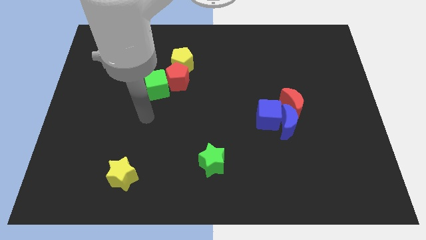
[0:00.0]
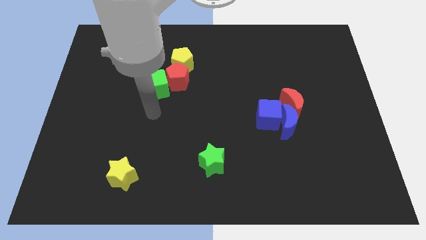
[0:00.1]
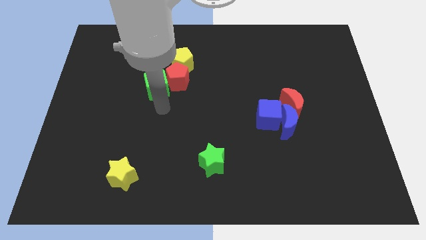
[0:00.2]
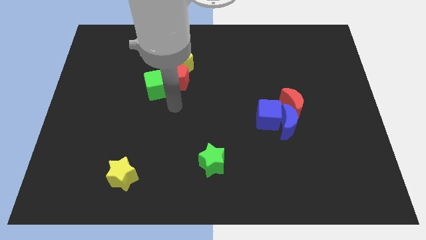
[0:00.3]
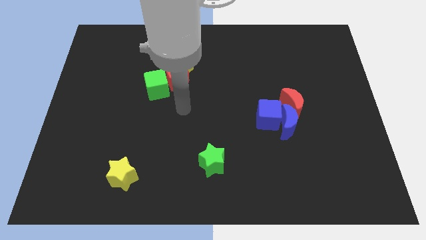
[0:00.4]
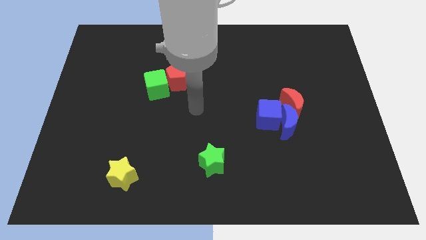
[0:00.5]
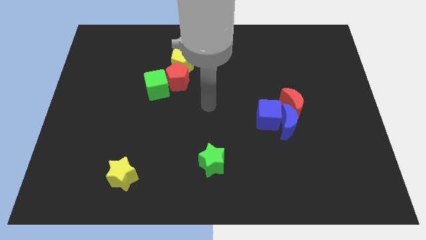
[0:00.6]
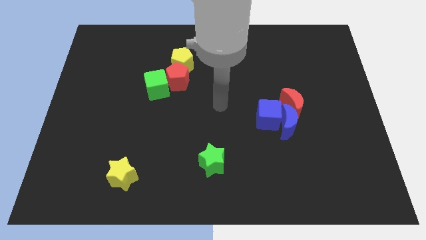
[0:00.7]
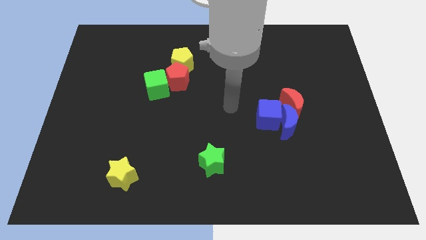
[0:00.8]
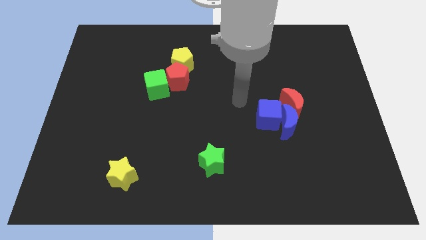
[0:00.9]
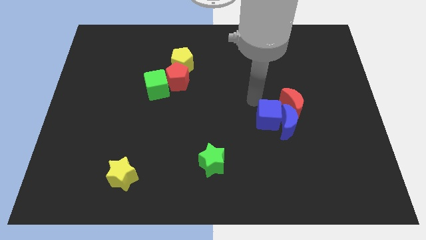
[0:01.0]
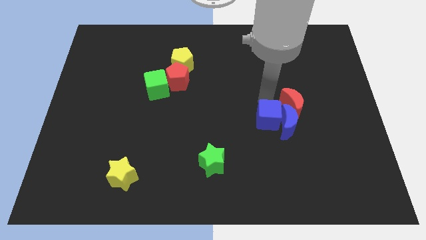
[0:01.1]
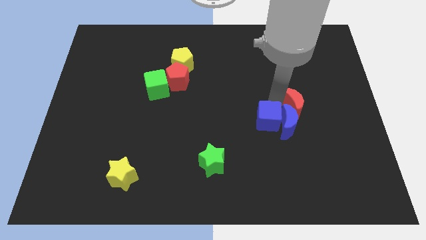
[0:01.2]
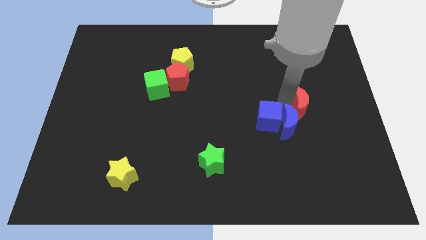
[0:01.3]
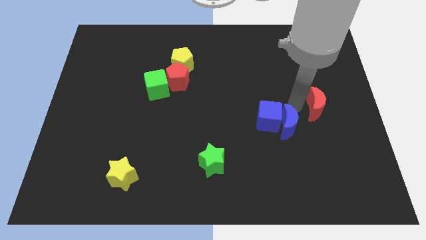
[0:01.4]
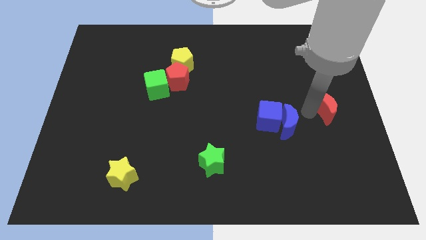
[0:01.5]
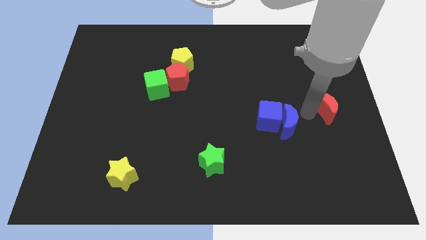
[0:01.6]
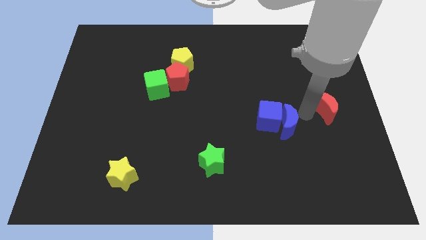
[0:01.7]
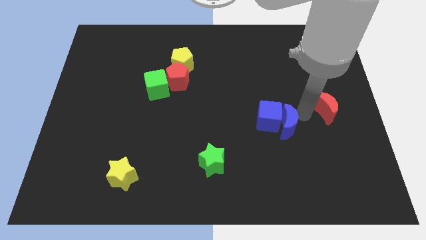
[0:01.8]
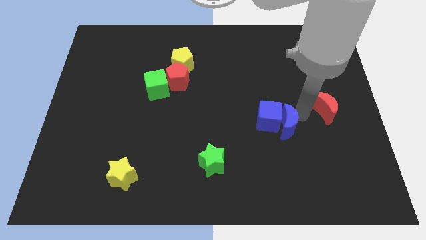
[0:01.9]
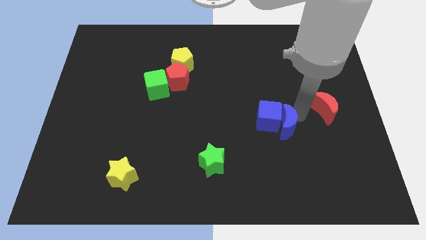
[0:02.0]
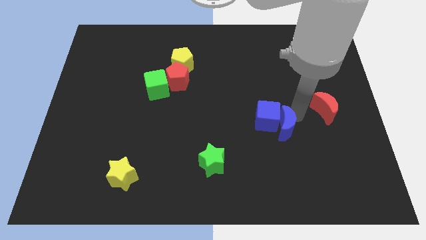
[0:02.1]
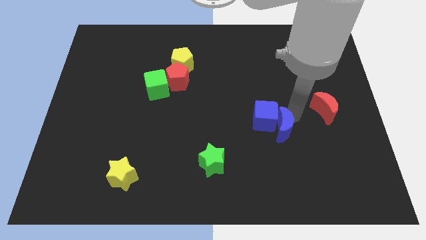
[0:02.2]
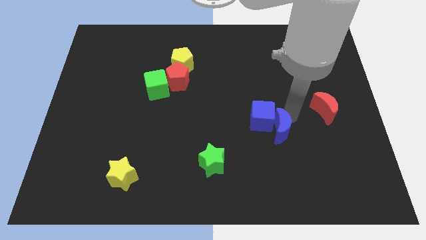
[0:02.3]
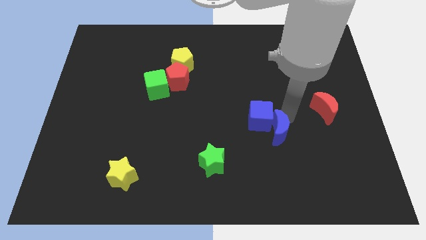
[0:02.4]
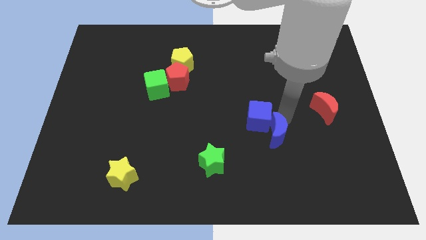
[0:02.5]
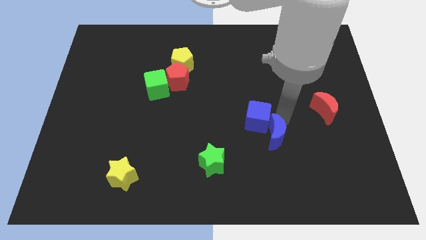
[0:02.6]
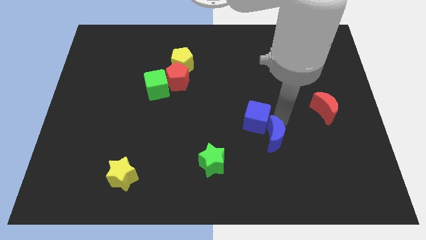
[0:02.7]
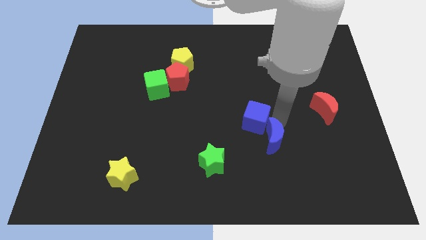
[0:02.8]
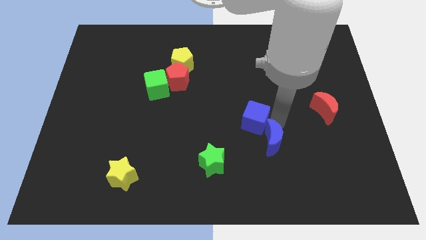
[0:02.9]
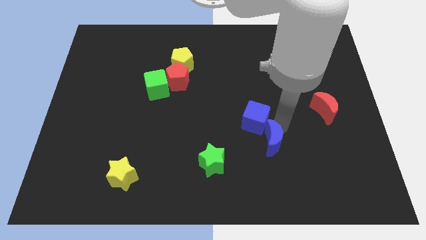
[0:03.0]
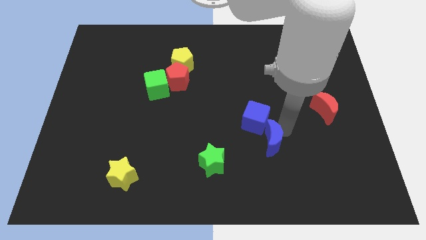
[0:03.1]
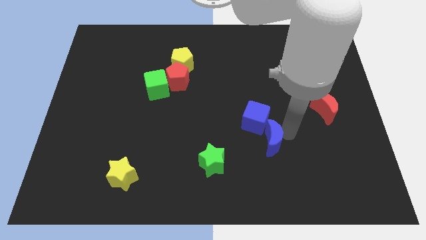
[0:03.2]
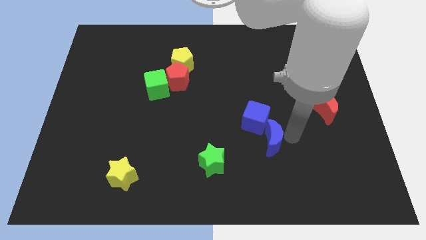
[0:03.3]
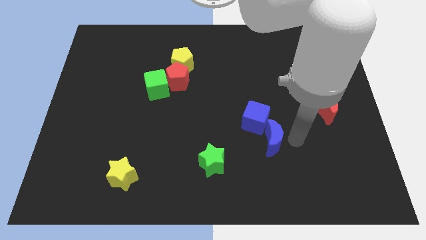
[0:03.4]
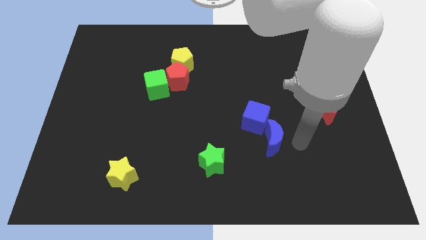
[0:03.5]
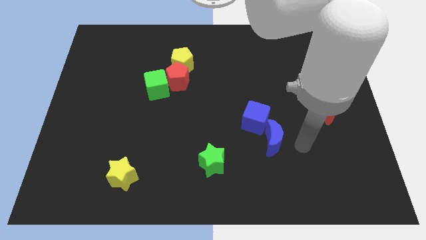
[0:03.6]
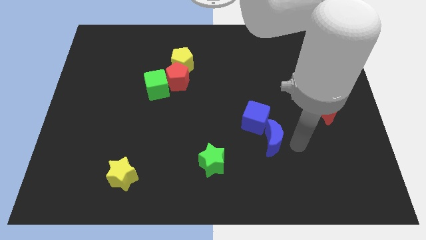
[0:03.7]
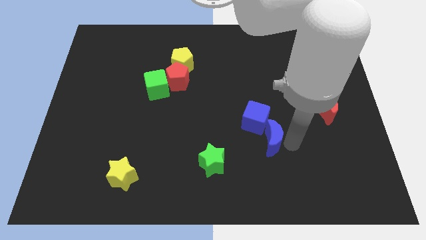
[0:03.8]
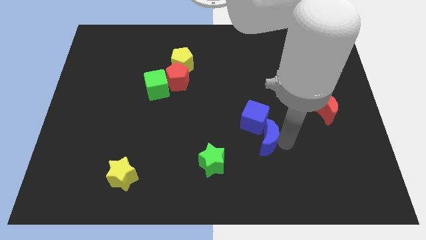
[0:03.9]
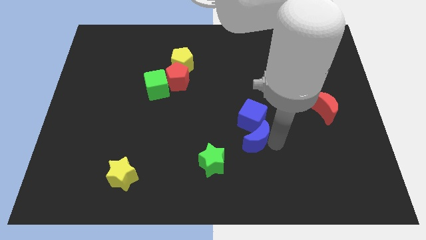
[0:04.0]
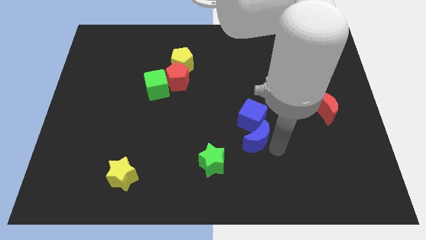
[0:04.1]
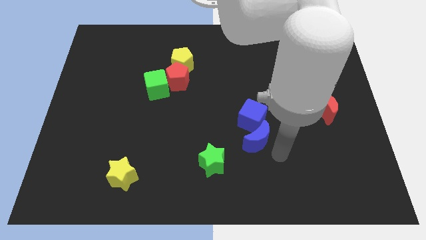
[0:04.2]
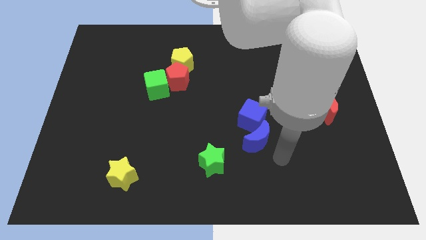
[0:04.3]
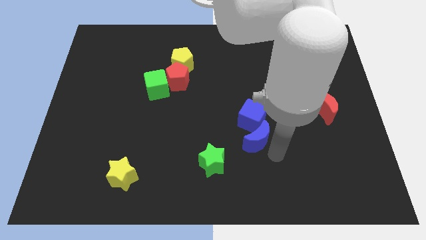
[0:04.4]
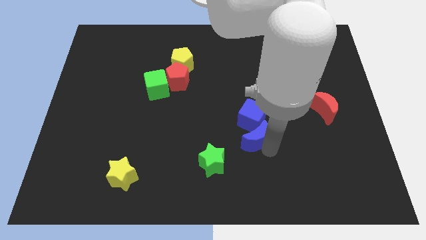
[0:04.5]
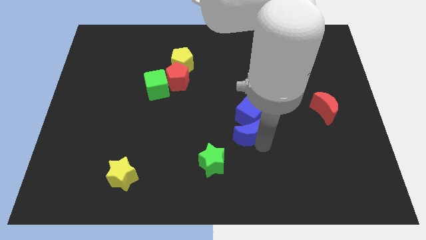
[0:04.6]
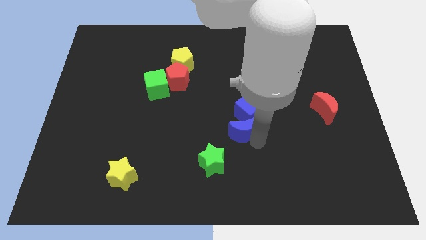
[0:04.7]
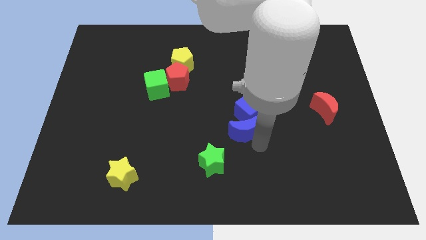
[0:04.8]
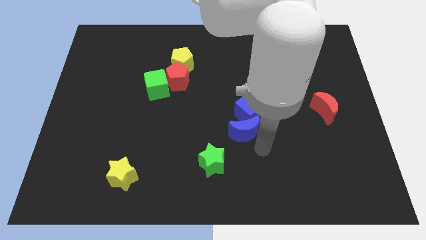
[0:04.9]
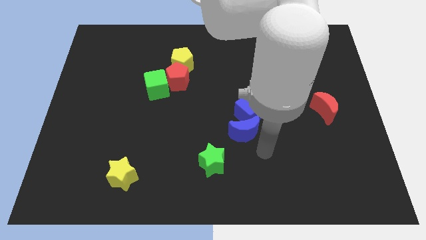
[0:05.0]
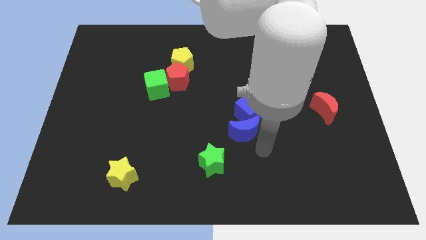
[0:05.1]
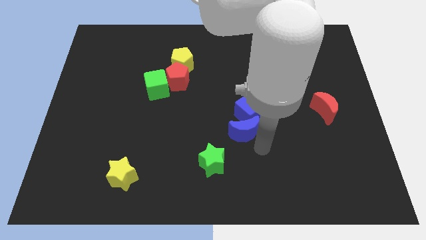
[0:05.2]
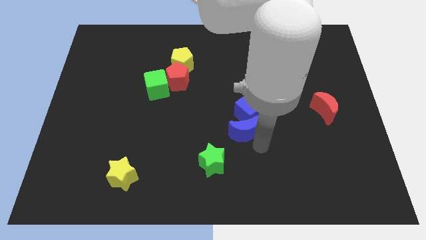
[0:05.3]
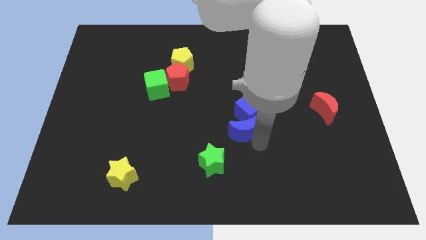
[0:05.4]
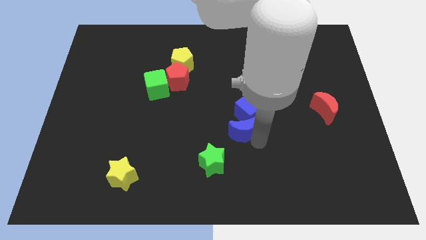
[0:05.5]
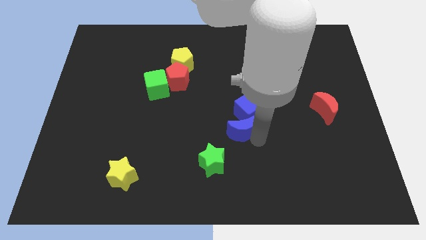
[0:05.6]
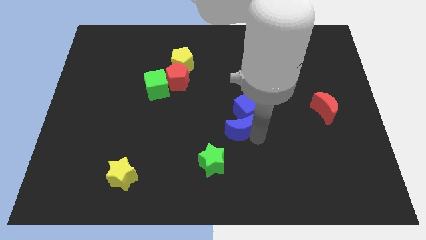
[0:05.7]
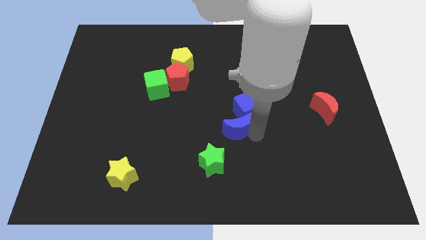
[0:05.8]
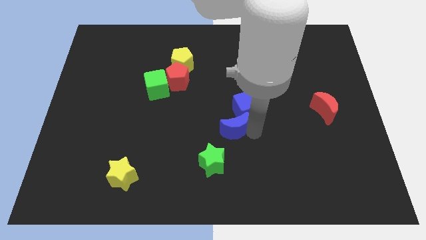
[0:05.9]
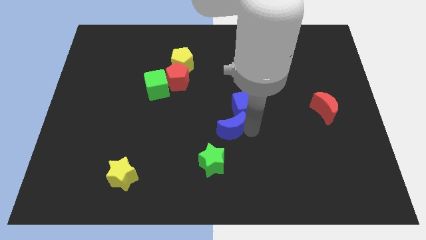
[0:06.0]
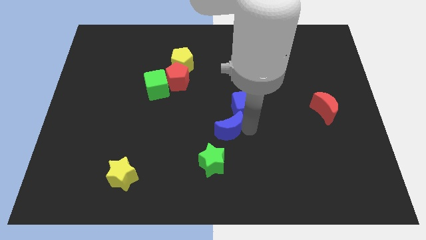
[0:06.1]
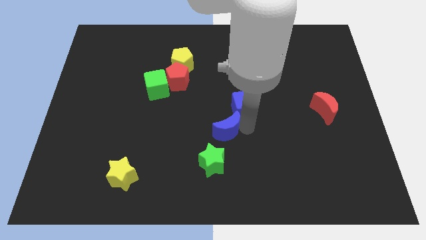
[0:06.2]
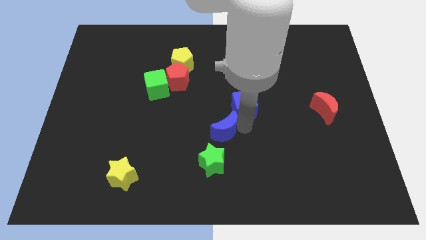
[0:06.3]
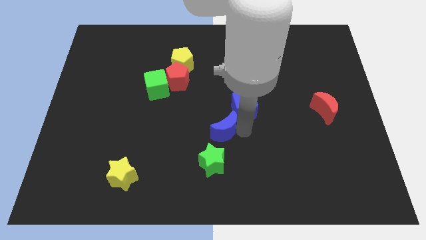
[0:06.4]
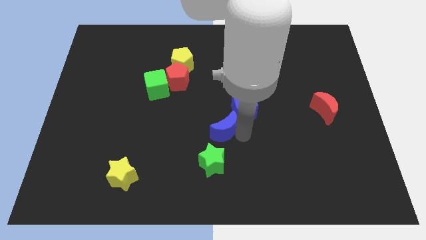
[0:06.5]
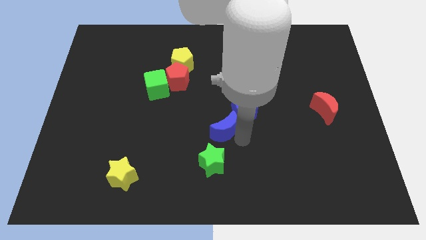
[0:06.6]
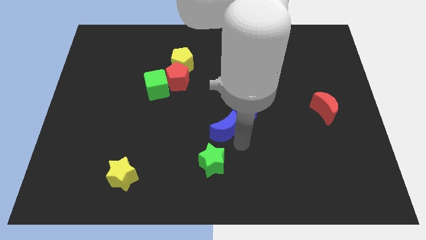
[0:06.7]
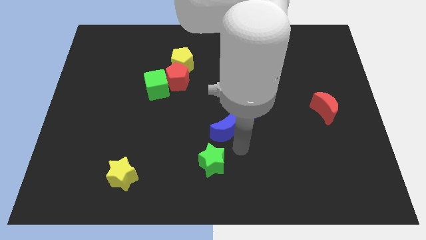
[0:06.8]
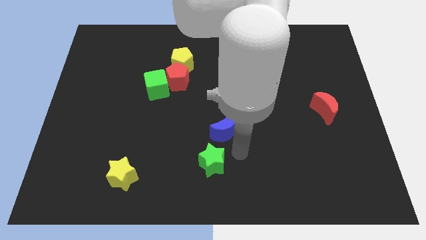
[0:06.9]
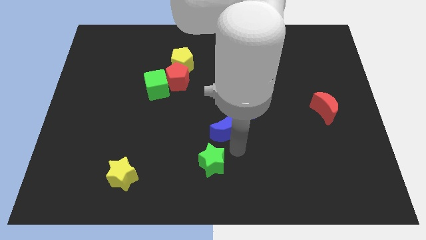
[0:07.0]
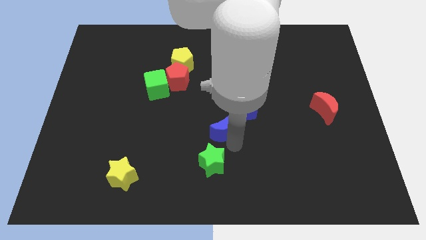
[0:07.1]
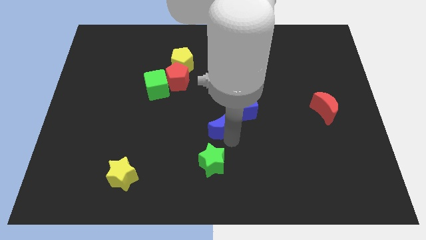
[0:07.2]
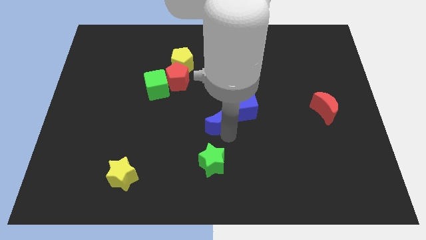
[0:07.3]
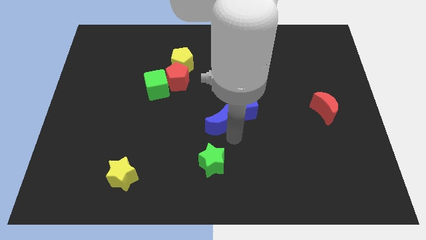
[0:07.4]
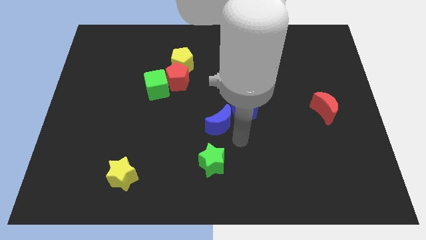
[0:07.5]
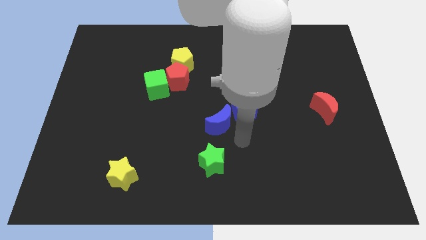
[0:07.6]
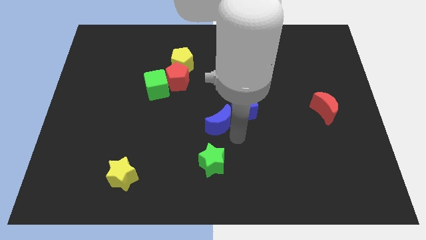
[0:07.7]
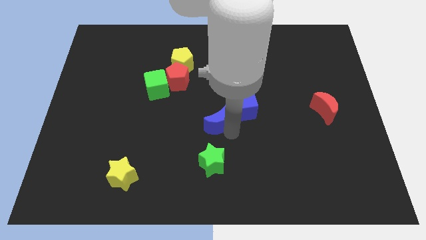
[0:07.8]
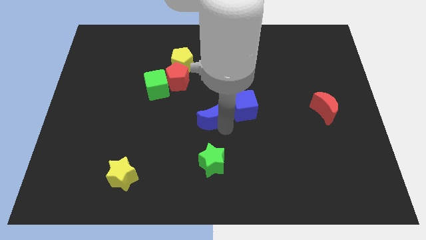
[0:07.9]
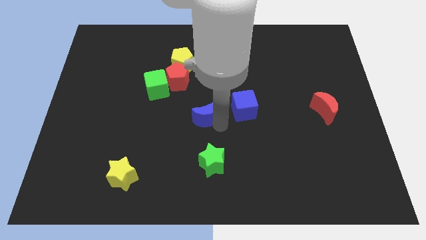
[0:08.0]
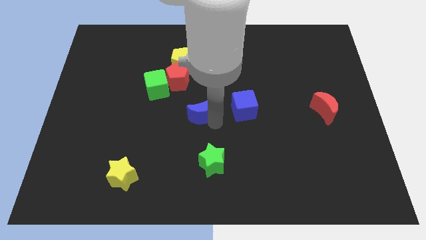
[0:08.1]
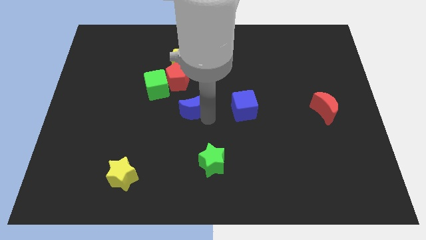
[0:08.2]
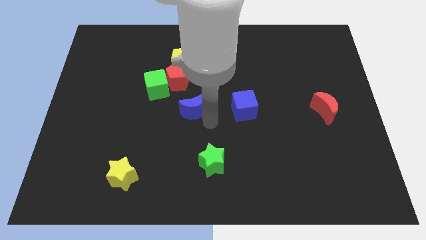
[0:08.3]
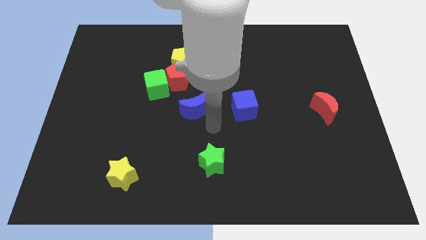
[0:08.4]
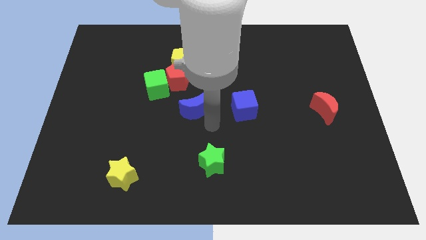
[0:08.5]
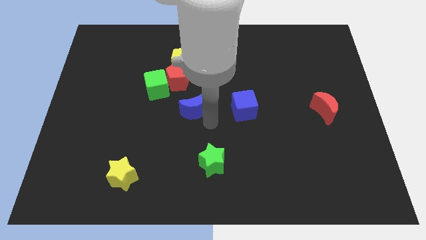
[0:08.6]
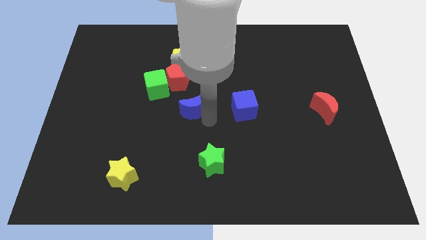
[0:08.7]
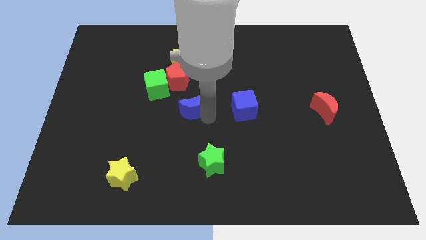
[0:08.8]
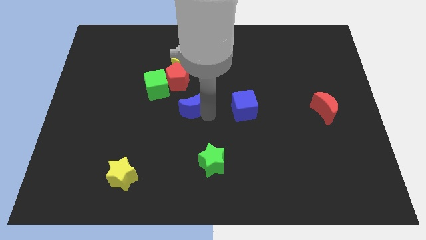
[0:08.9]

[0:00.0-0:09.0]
put the blue moon to the bottom of the yellow pentagon
